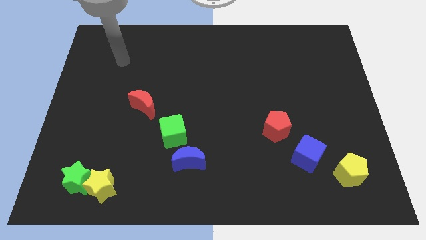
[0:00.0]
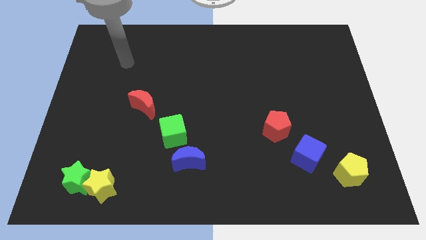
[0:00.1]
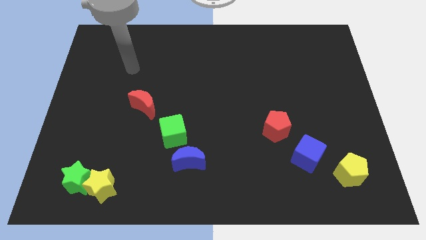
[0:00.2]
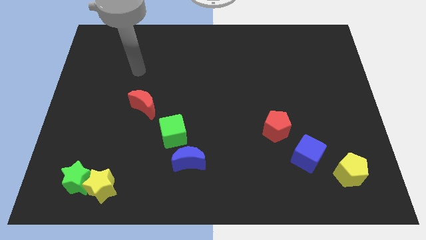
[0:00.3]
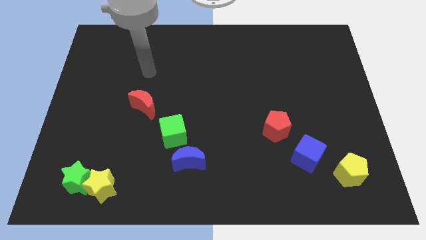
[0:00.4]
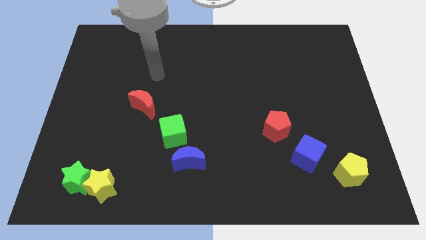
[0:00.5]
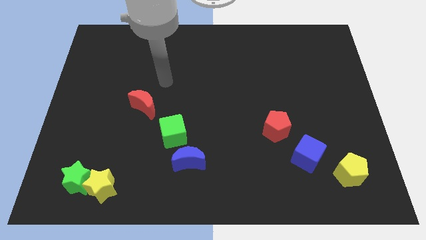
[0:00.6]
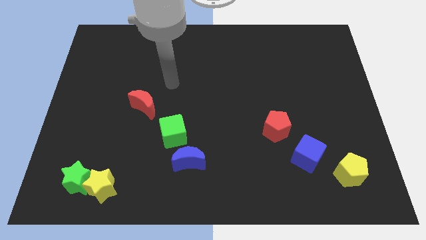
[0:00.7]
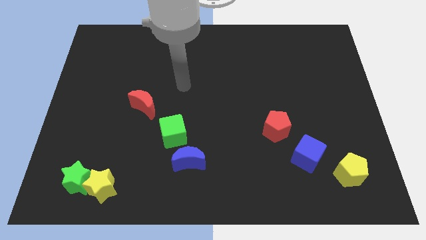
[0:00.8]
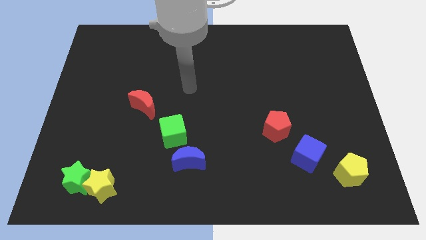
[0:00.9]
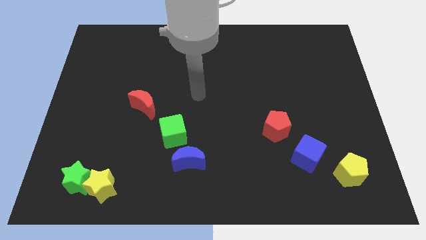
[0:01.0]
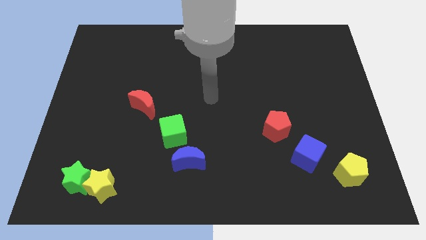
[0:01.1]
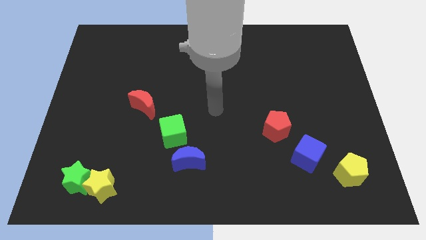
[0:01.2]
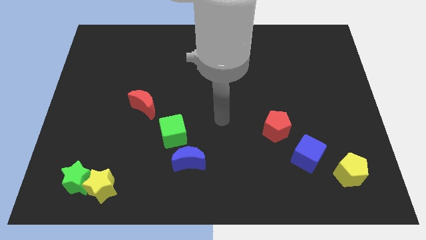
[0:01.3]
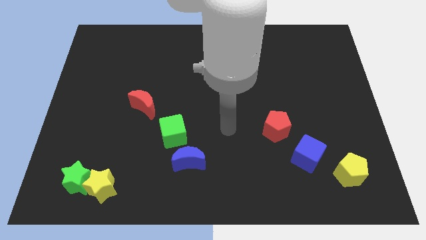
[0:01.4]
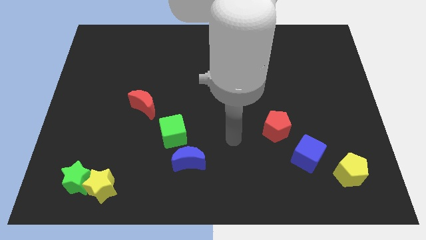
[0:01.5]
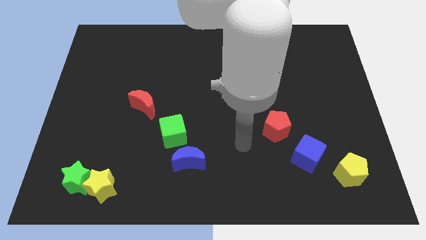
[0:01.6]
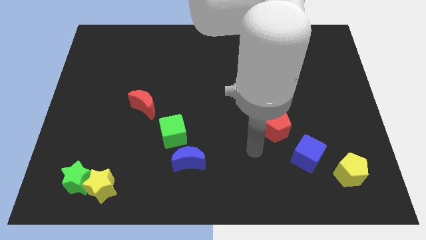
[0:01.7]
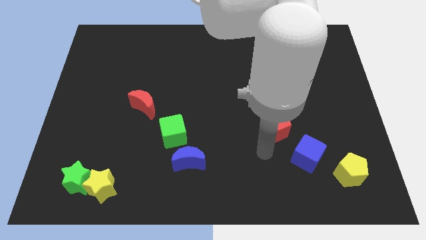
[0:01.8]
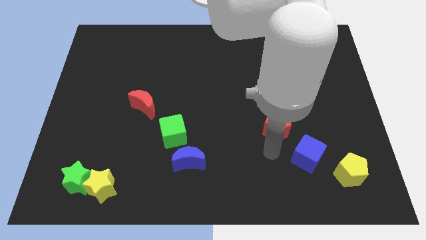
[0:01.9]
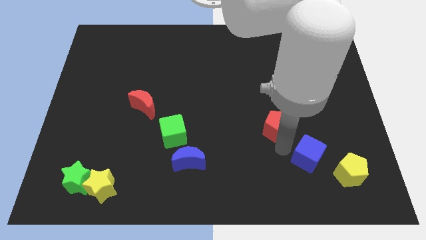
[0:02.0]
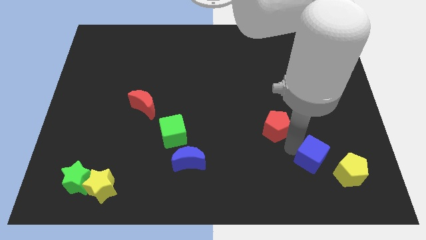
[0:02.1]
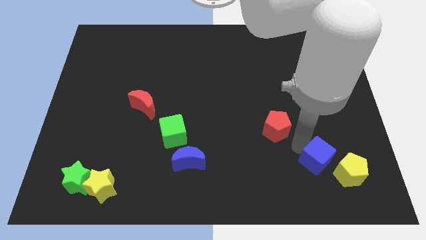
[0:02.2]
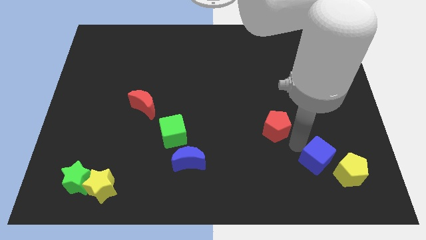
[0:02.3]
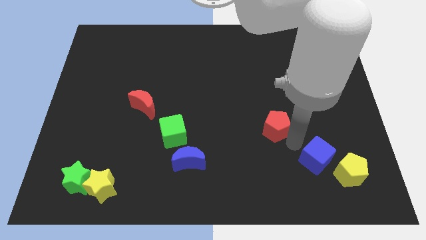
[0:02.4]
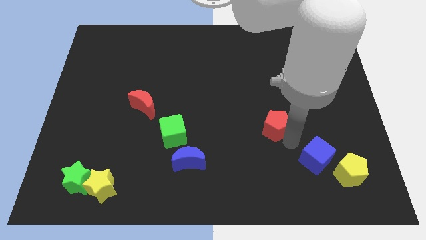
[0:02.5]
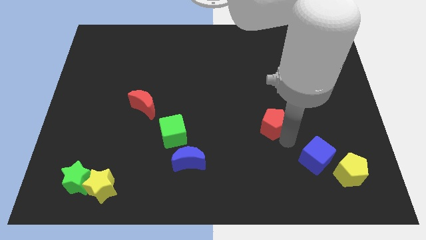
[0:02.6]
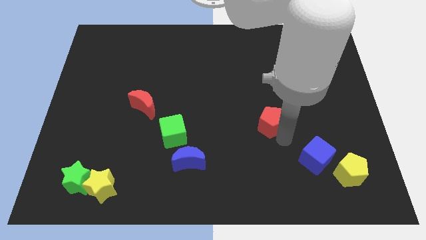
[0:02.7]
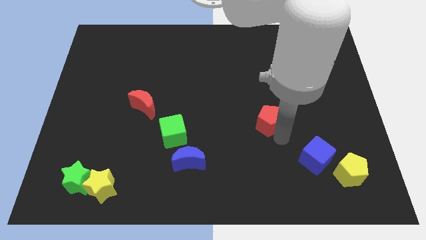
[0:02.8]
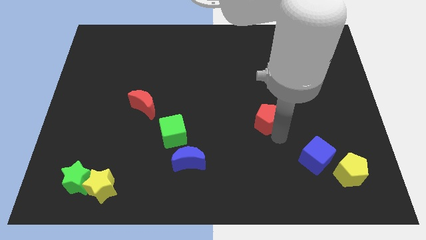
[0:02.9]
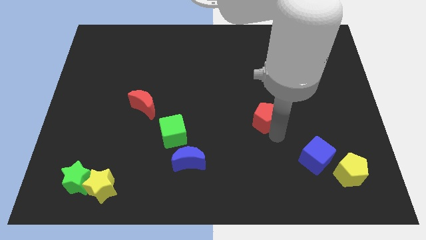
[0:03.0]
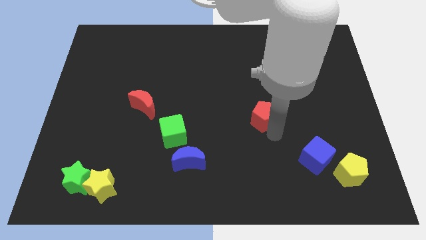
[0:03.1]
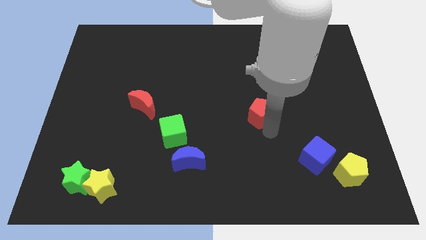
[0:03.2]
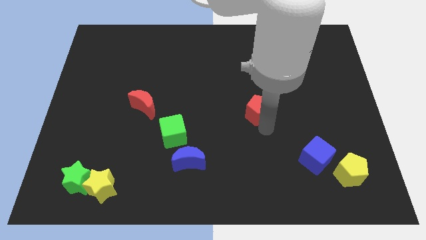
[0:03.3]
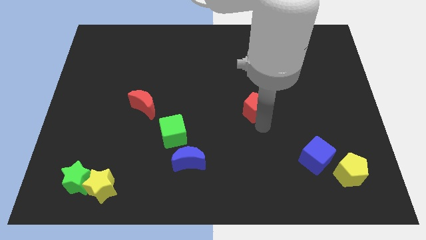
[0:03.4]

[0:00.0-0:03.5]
slightly slide the red pentagon upwards and then to the left

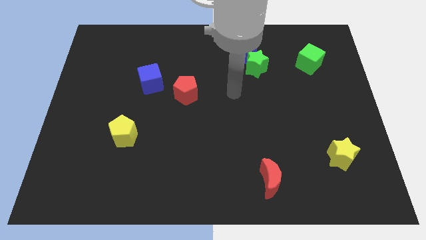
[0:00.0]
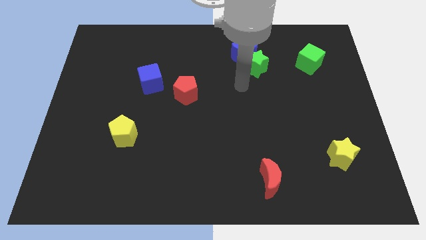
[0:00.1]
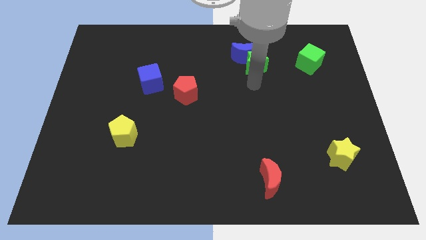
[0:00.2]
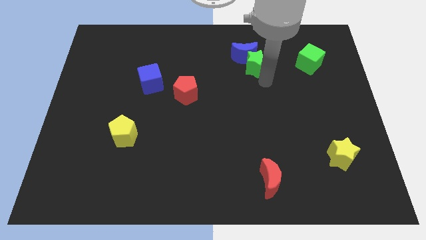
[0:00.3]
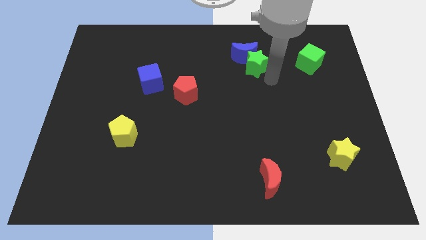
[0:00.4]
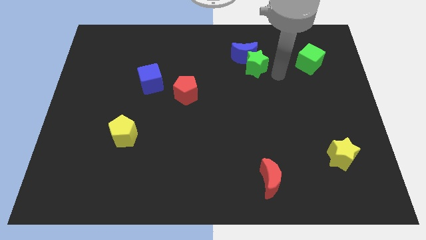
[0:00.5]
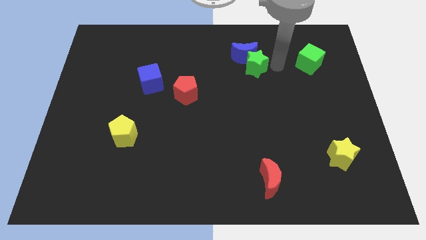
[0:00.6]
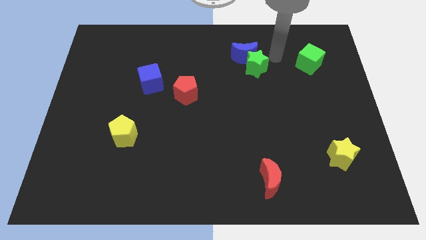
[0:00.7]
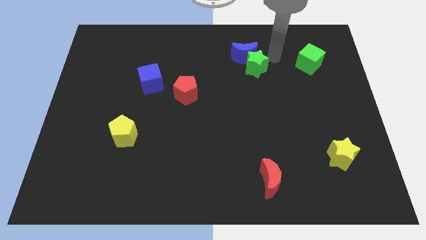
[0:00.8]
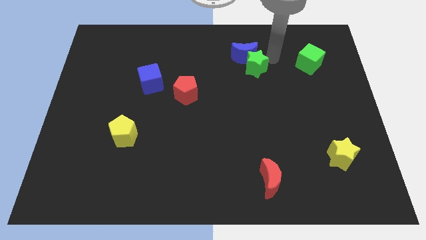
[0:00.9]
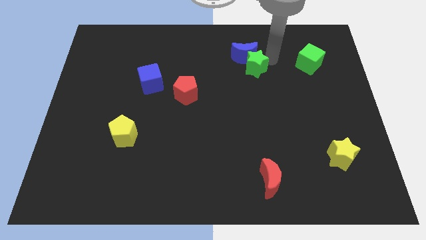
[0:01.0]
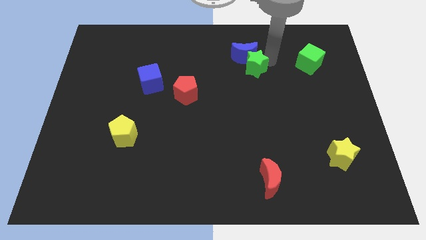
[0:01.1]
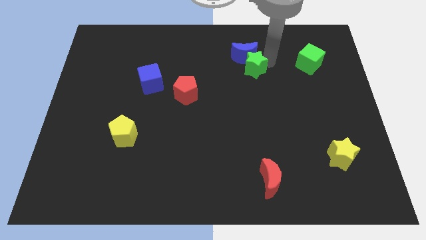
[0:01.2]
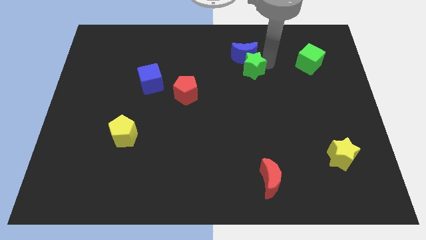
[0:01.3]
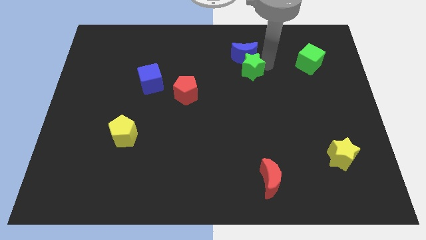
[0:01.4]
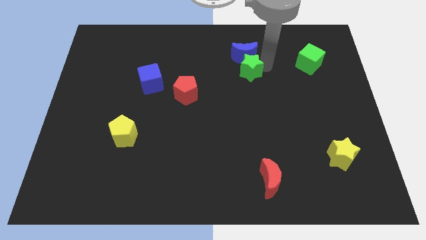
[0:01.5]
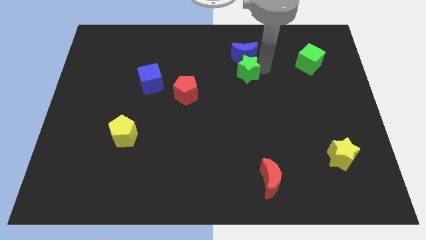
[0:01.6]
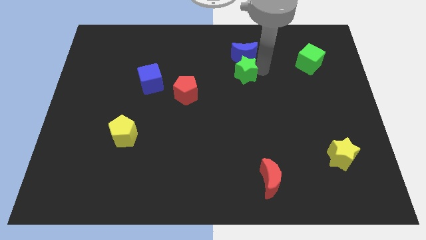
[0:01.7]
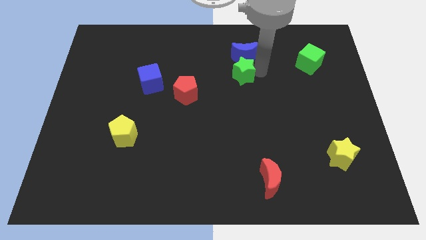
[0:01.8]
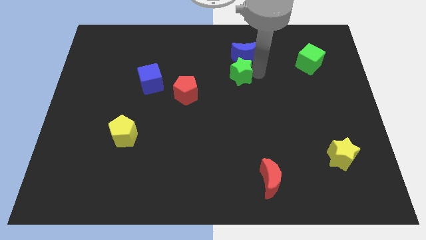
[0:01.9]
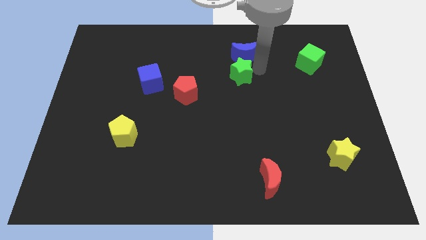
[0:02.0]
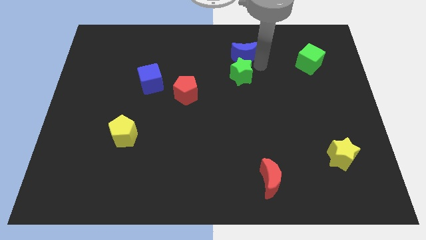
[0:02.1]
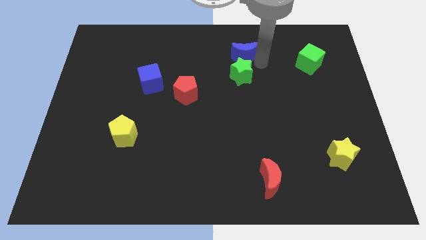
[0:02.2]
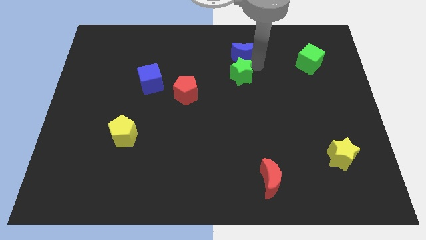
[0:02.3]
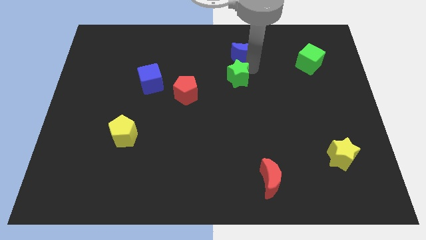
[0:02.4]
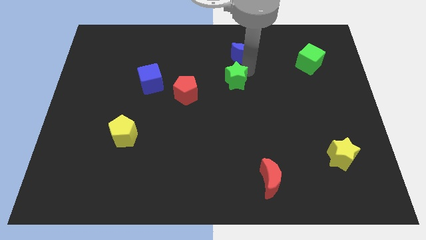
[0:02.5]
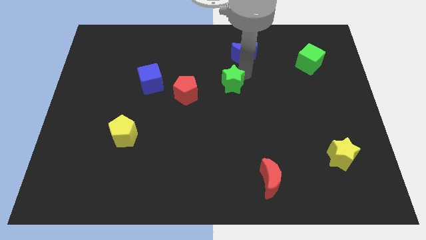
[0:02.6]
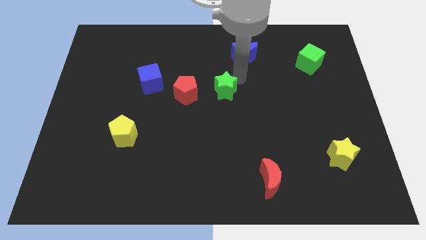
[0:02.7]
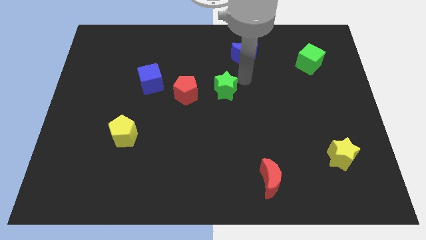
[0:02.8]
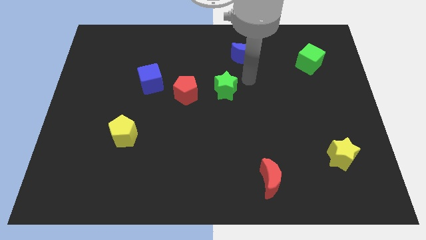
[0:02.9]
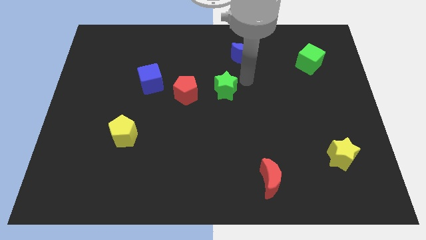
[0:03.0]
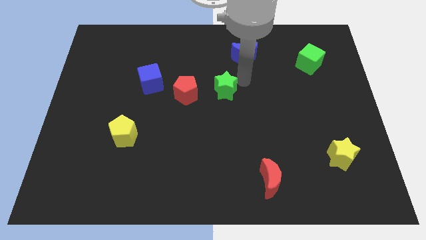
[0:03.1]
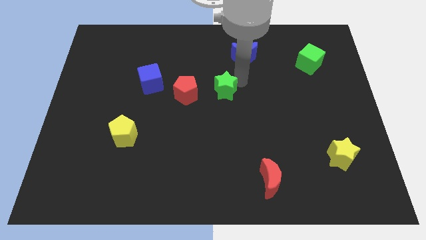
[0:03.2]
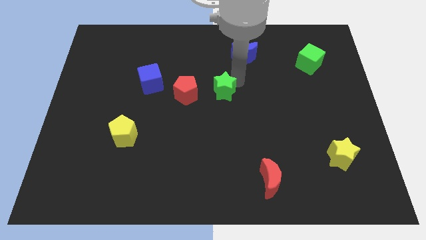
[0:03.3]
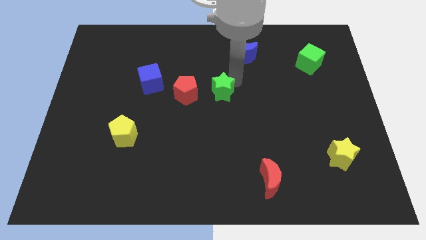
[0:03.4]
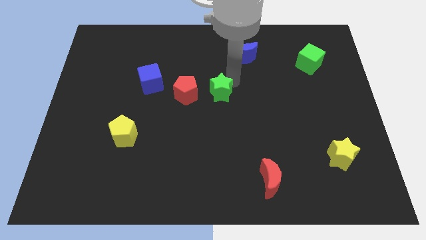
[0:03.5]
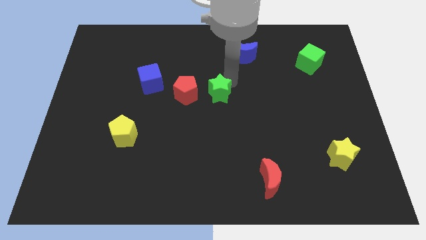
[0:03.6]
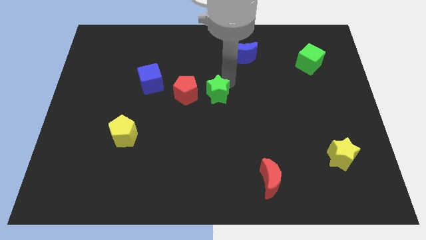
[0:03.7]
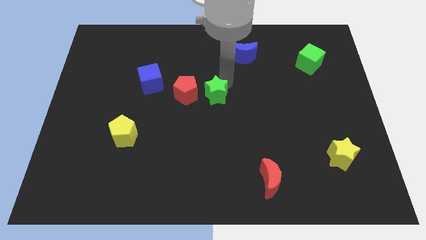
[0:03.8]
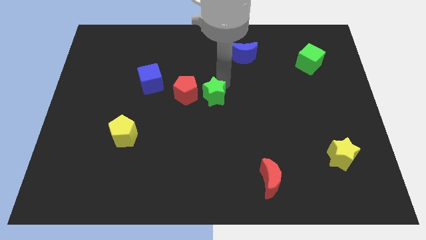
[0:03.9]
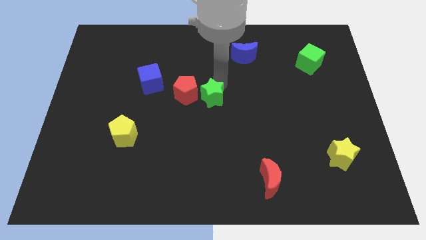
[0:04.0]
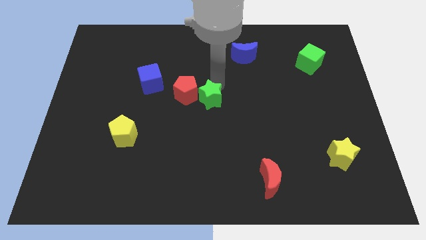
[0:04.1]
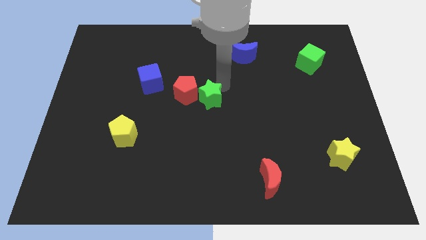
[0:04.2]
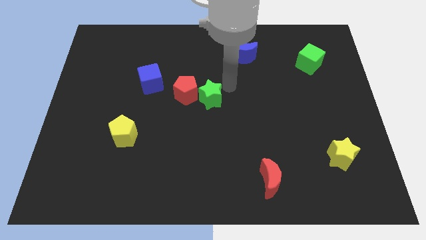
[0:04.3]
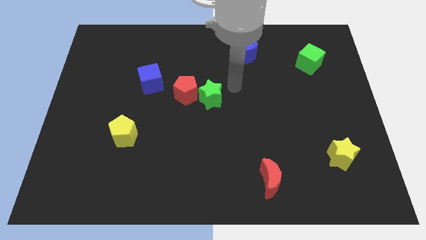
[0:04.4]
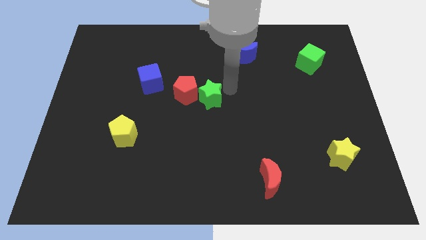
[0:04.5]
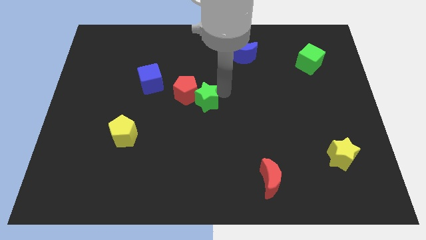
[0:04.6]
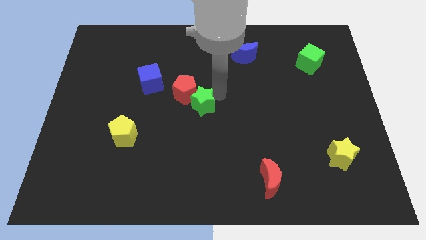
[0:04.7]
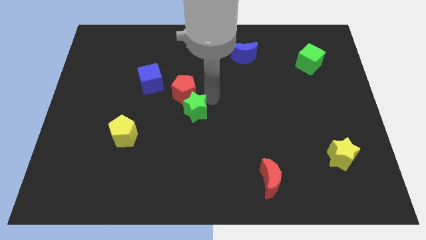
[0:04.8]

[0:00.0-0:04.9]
push the green star down and to the left diagonally
